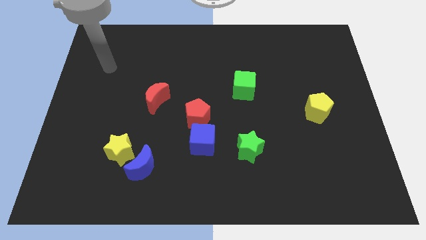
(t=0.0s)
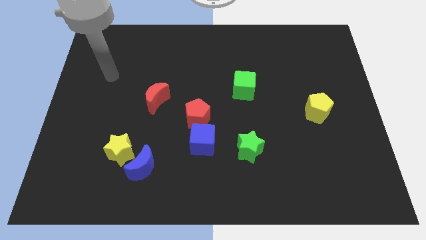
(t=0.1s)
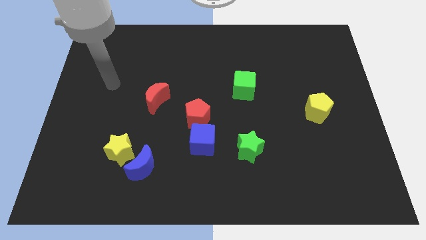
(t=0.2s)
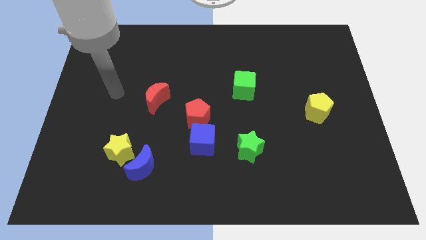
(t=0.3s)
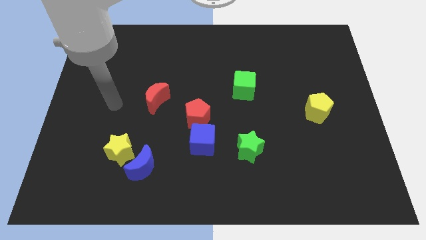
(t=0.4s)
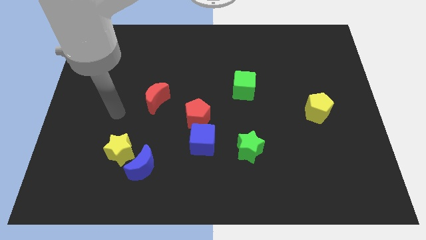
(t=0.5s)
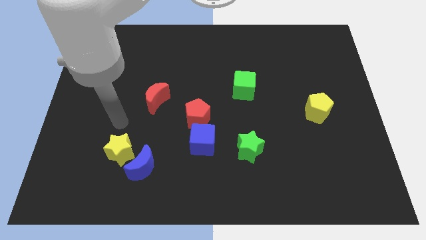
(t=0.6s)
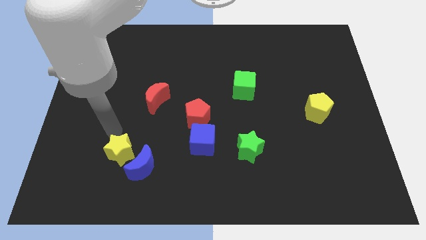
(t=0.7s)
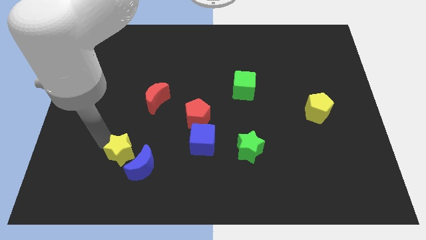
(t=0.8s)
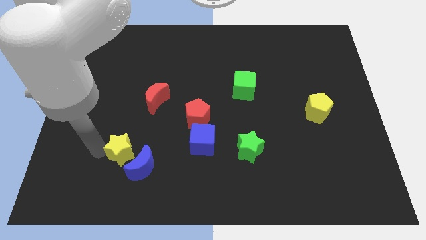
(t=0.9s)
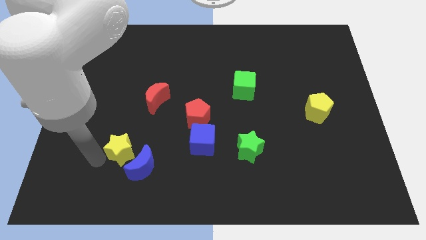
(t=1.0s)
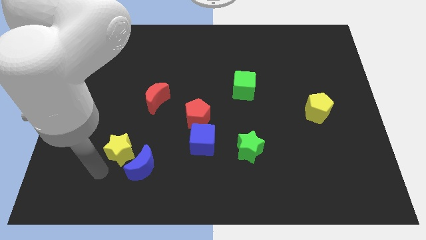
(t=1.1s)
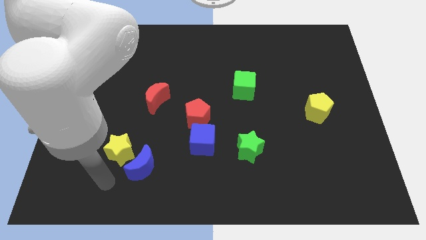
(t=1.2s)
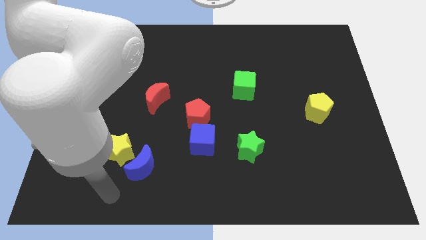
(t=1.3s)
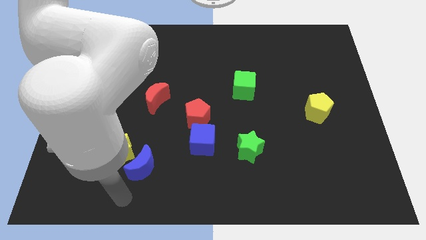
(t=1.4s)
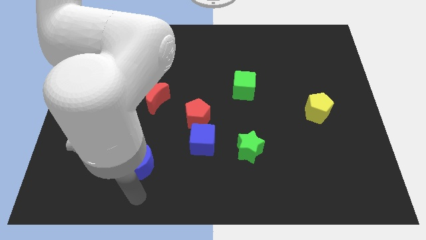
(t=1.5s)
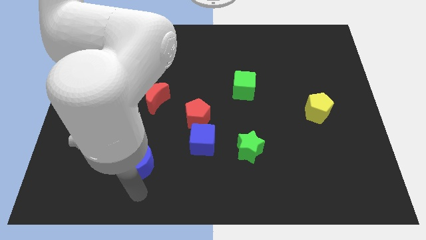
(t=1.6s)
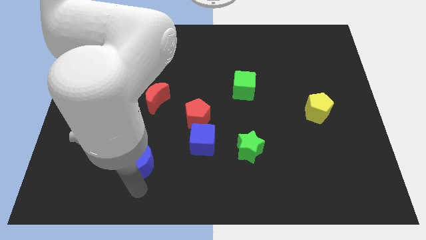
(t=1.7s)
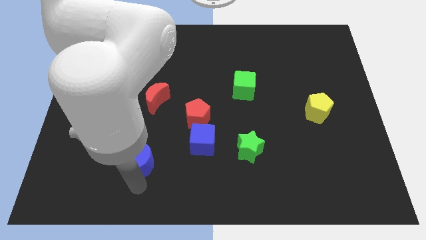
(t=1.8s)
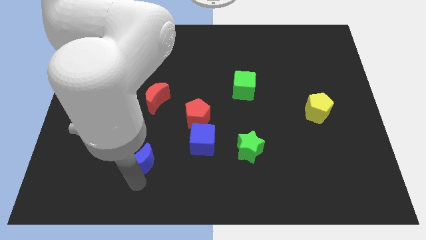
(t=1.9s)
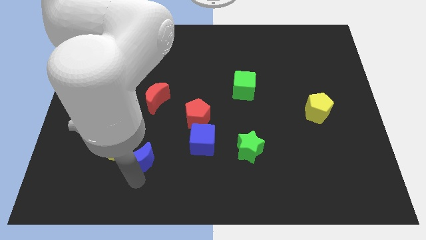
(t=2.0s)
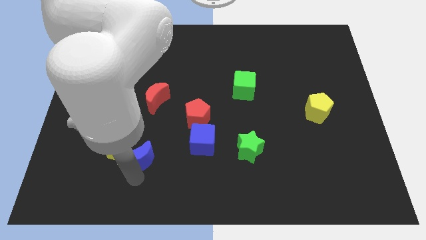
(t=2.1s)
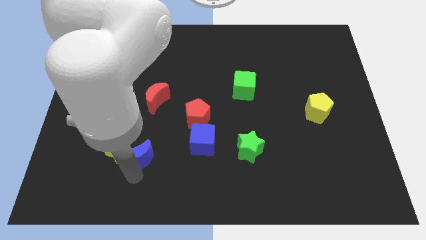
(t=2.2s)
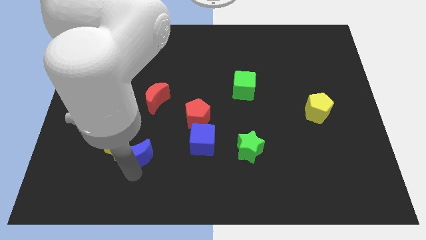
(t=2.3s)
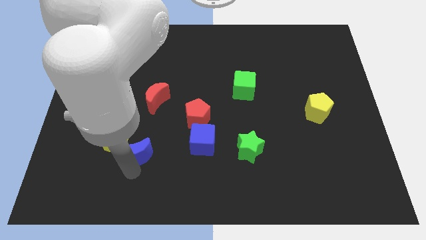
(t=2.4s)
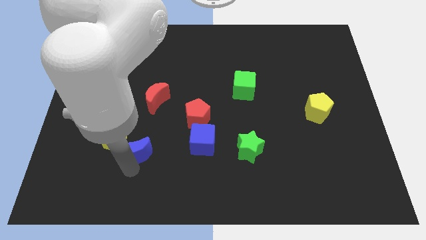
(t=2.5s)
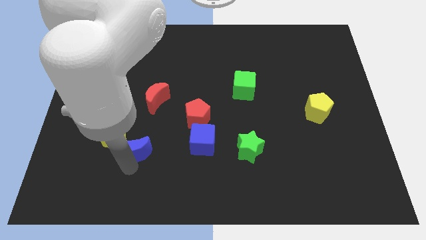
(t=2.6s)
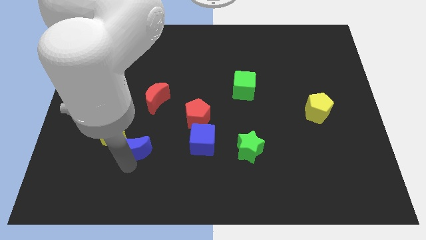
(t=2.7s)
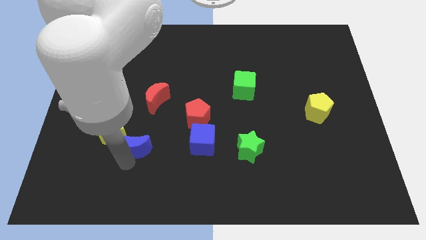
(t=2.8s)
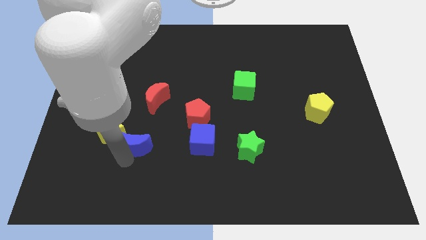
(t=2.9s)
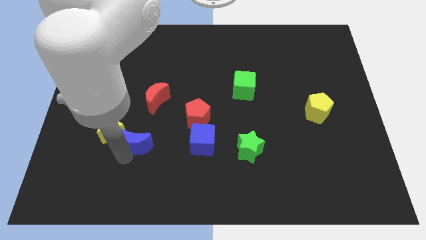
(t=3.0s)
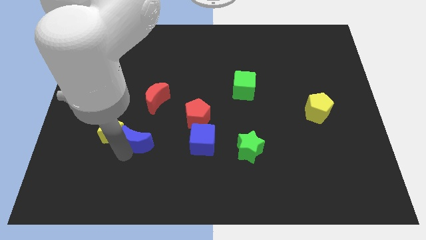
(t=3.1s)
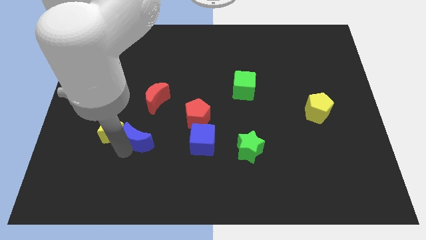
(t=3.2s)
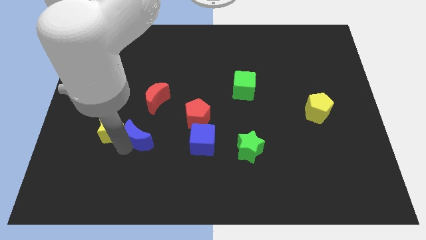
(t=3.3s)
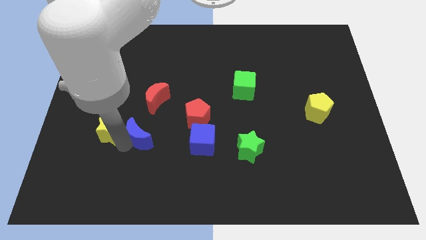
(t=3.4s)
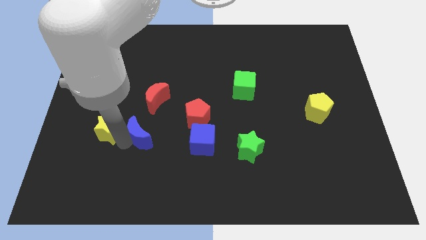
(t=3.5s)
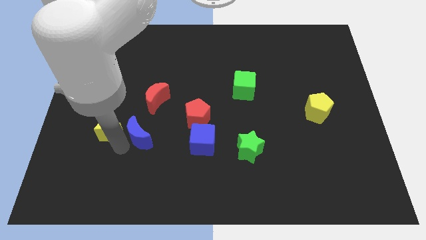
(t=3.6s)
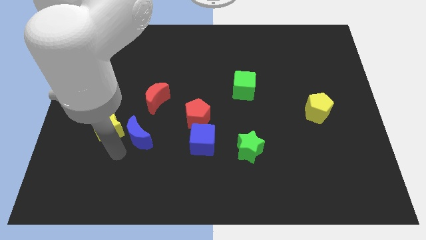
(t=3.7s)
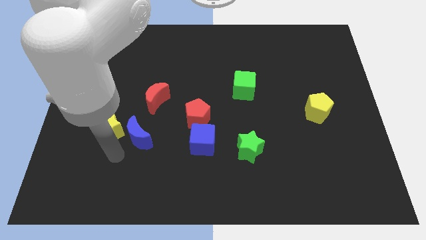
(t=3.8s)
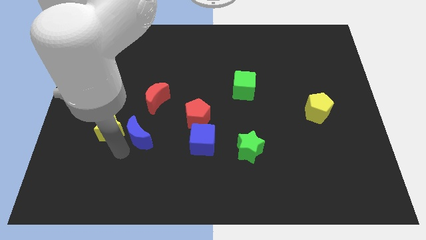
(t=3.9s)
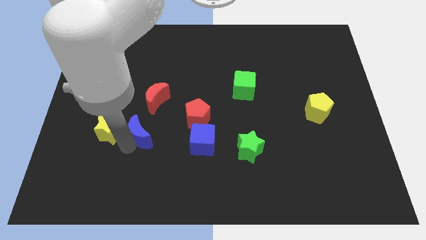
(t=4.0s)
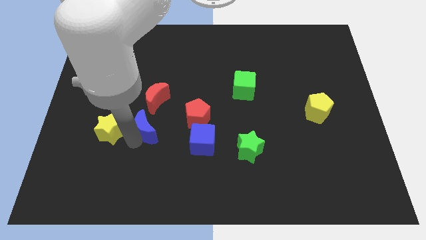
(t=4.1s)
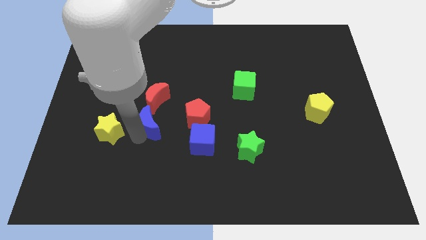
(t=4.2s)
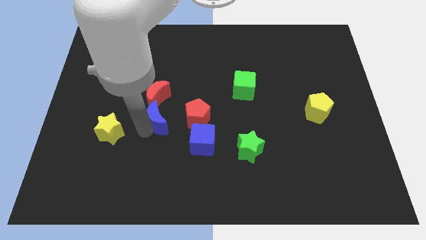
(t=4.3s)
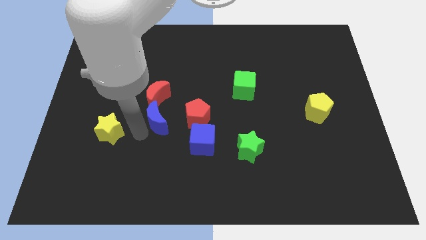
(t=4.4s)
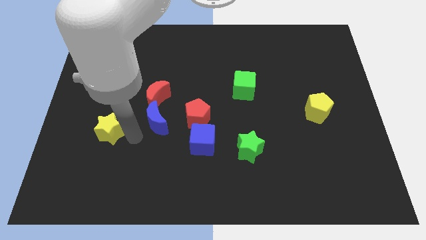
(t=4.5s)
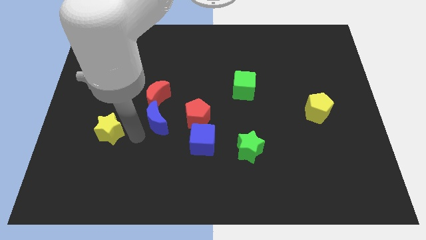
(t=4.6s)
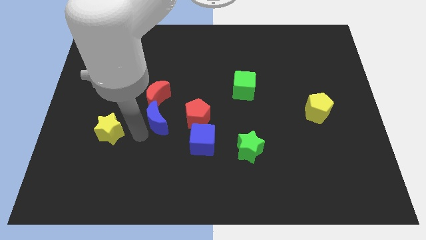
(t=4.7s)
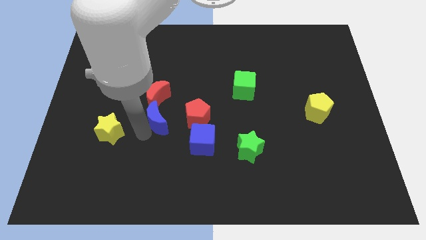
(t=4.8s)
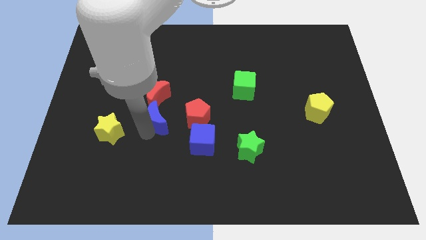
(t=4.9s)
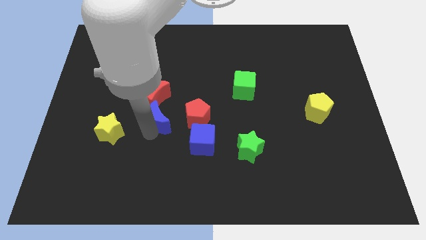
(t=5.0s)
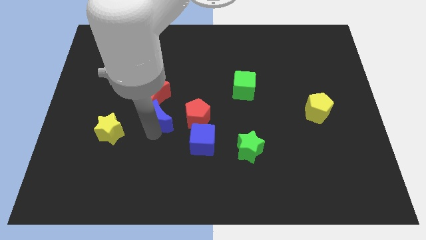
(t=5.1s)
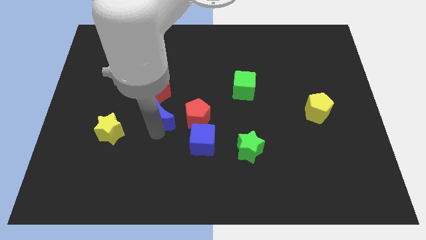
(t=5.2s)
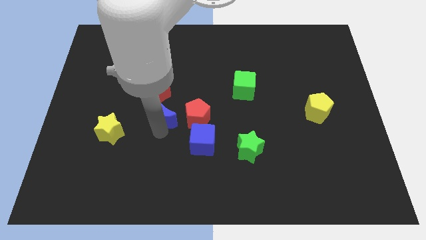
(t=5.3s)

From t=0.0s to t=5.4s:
put the blue moon to the center of the board

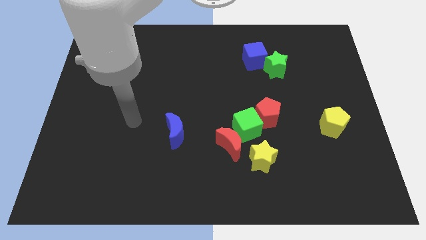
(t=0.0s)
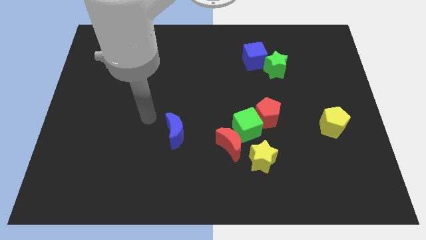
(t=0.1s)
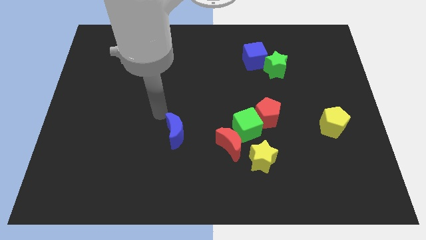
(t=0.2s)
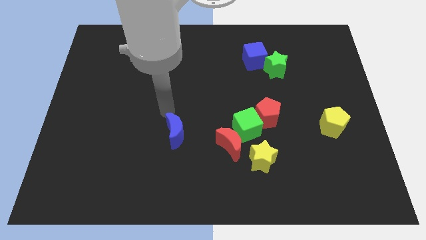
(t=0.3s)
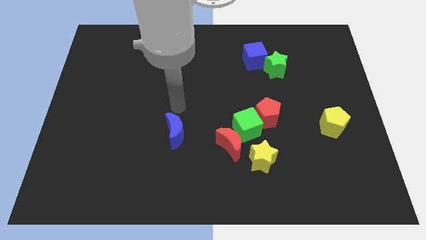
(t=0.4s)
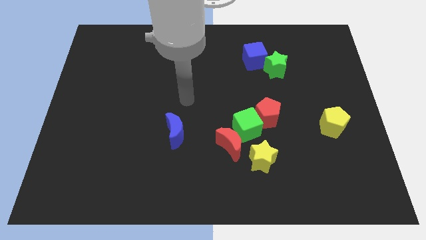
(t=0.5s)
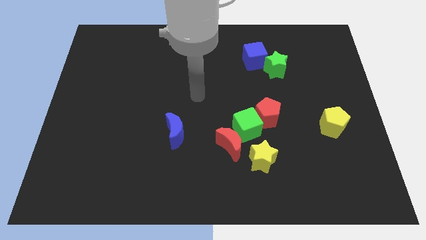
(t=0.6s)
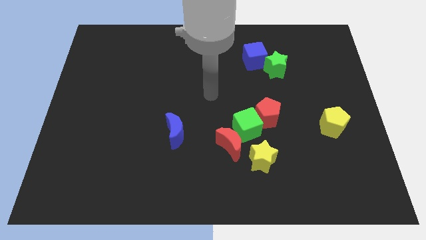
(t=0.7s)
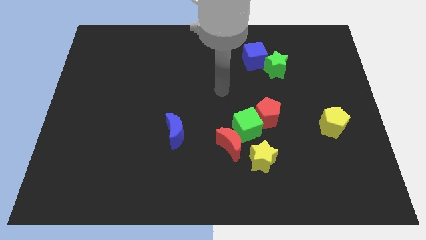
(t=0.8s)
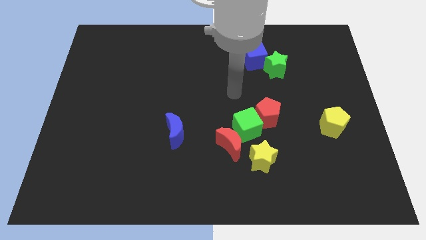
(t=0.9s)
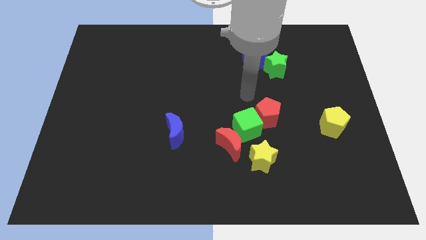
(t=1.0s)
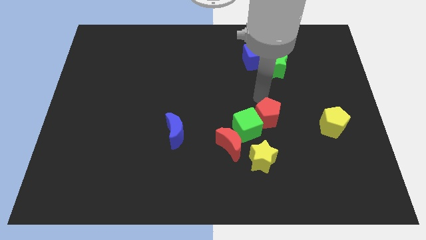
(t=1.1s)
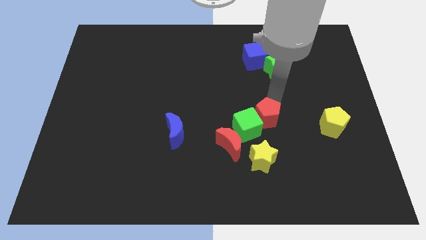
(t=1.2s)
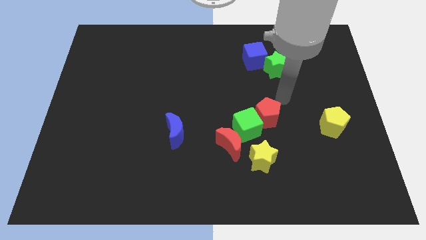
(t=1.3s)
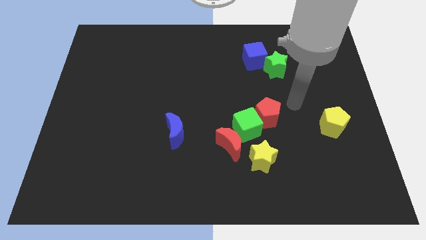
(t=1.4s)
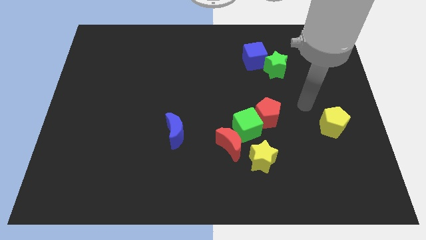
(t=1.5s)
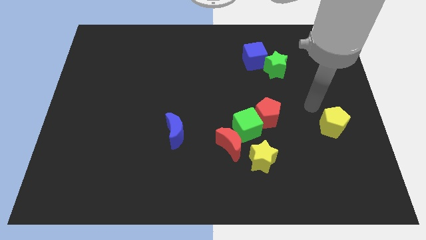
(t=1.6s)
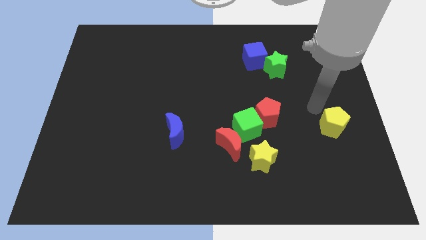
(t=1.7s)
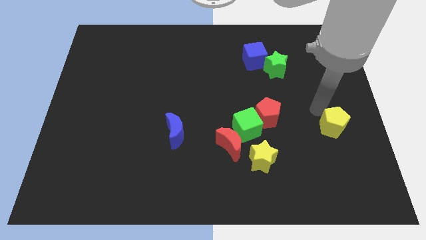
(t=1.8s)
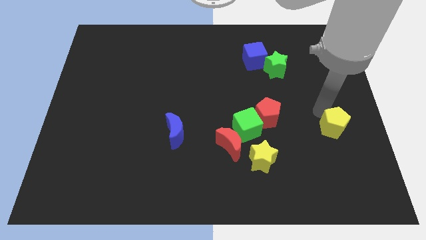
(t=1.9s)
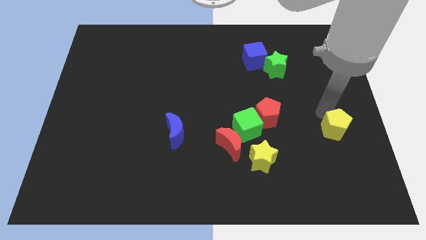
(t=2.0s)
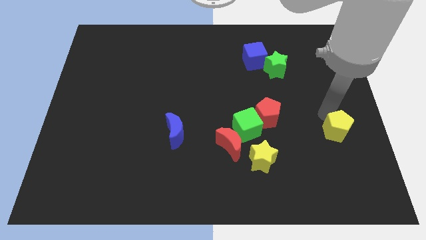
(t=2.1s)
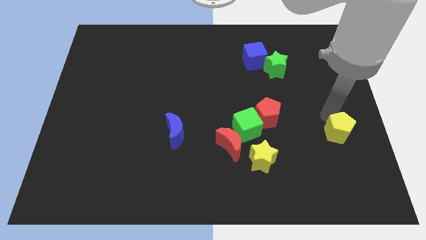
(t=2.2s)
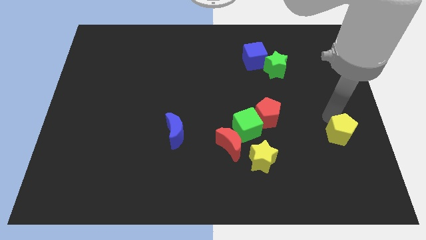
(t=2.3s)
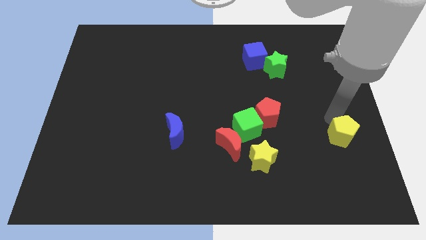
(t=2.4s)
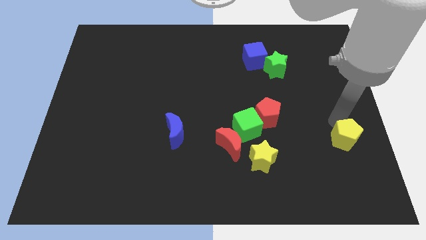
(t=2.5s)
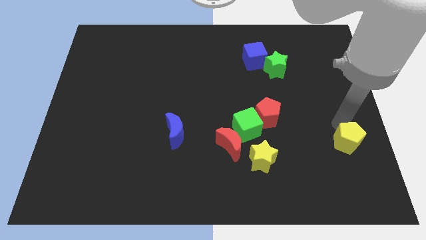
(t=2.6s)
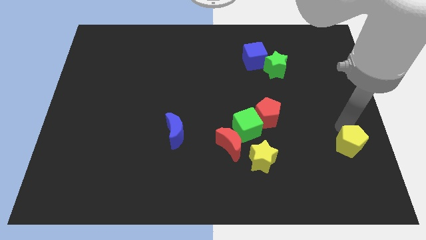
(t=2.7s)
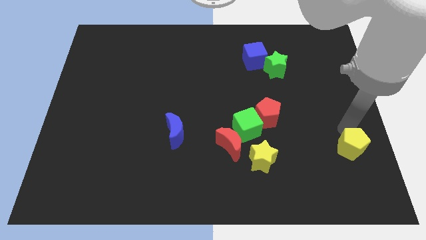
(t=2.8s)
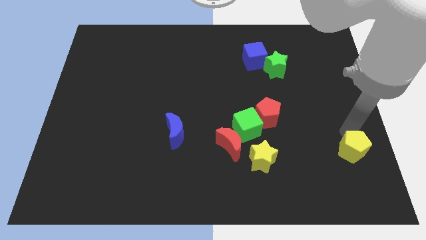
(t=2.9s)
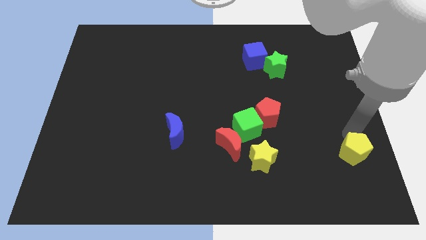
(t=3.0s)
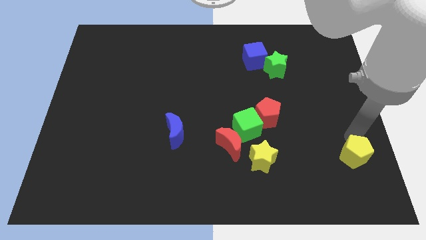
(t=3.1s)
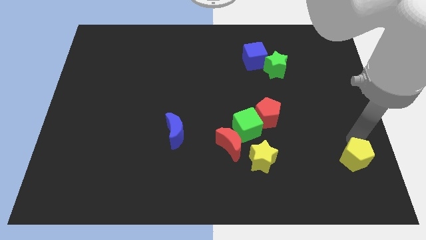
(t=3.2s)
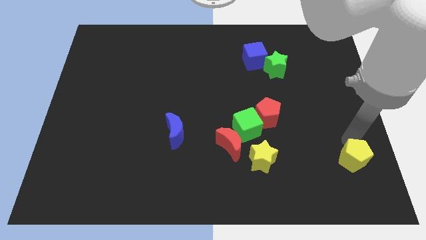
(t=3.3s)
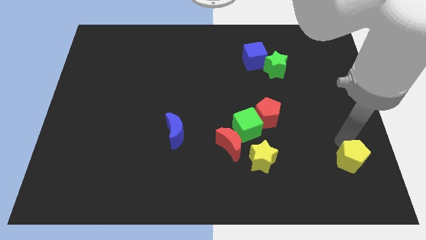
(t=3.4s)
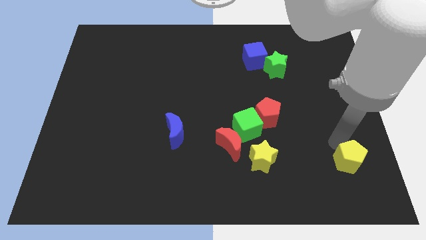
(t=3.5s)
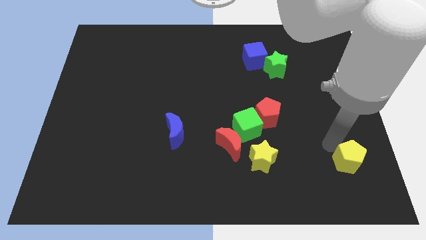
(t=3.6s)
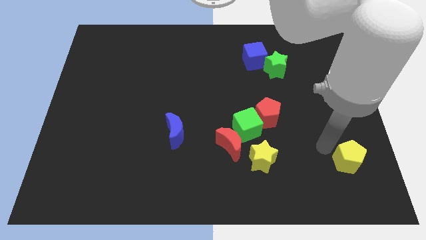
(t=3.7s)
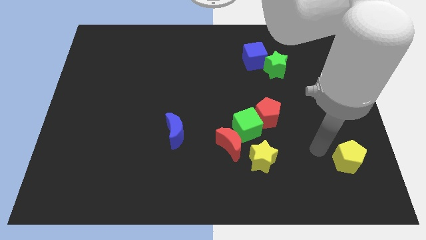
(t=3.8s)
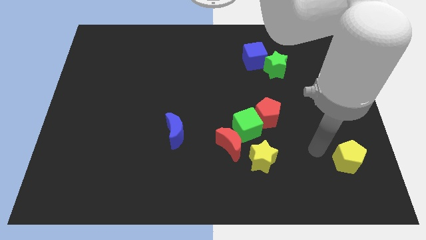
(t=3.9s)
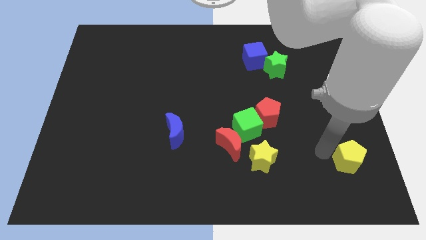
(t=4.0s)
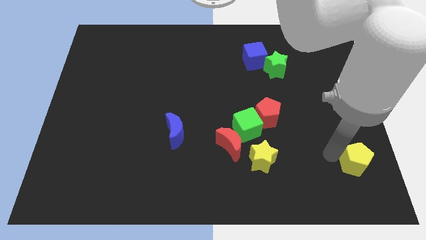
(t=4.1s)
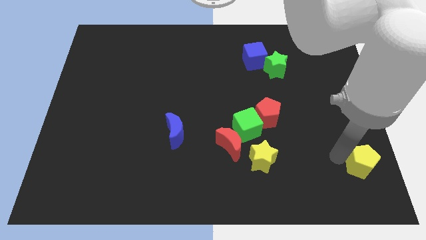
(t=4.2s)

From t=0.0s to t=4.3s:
move the yellow pentagon to the bottom right corner
